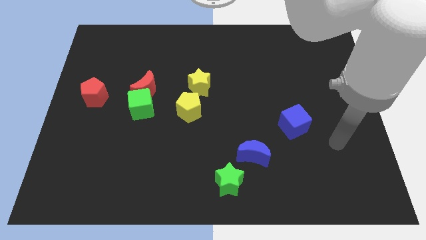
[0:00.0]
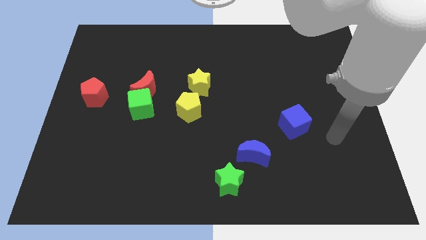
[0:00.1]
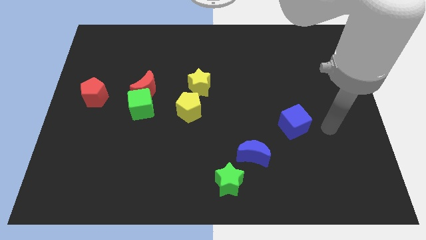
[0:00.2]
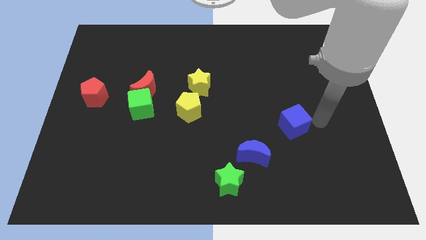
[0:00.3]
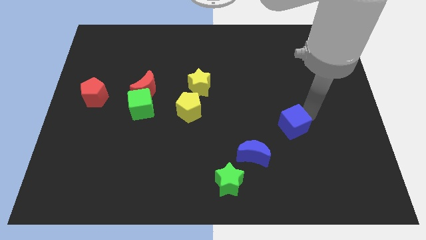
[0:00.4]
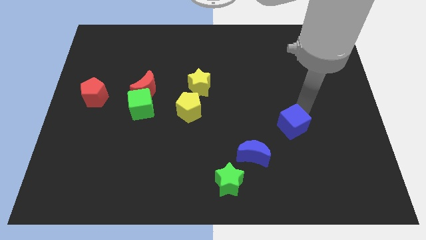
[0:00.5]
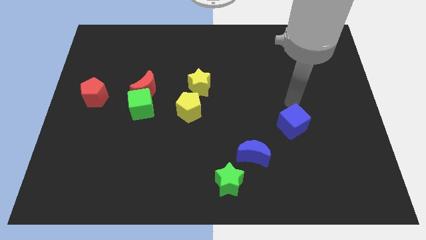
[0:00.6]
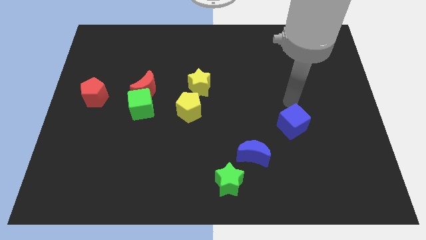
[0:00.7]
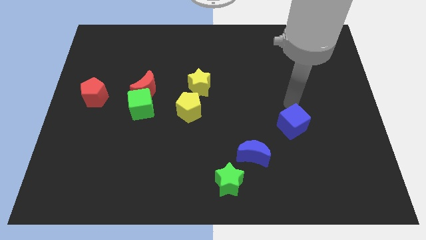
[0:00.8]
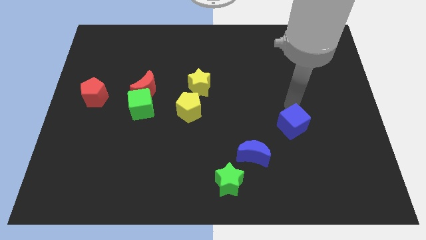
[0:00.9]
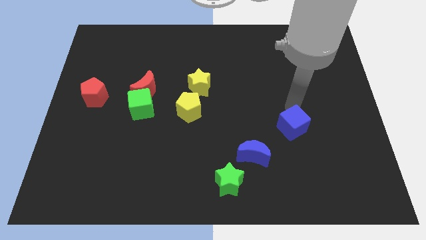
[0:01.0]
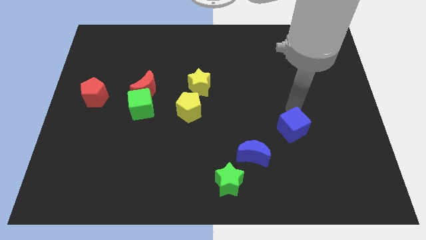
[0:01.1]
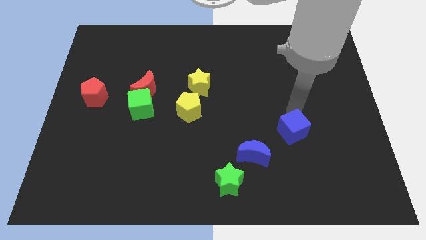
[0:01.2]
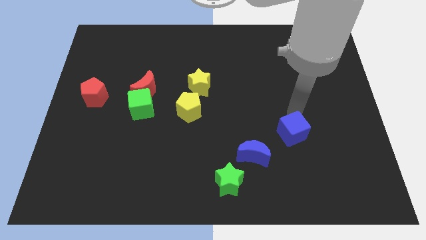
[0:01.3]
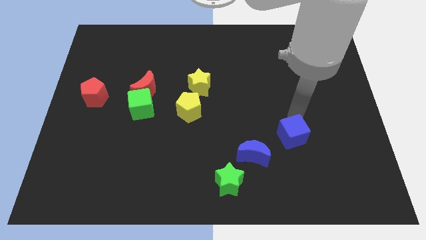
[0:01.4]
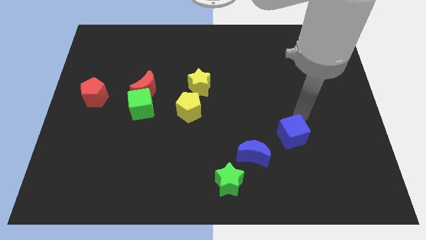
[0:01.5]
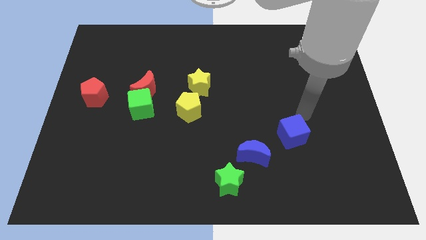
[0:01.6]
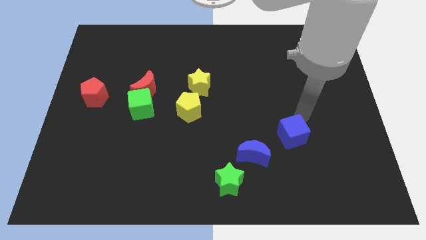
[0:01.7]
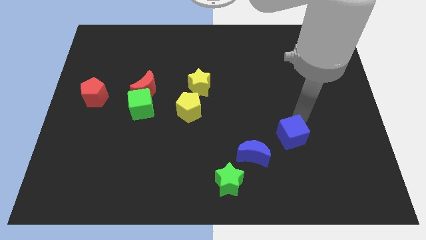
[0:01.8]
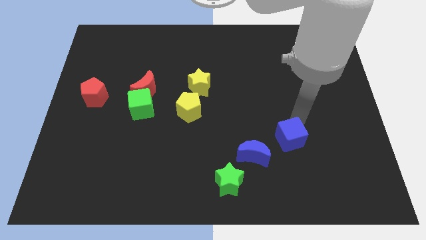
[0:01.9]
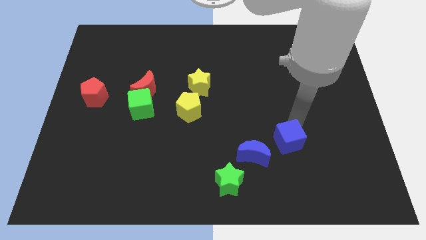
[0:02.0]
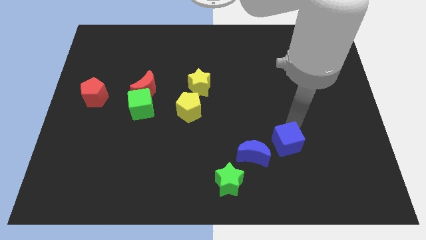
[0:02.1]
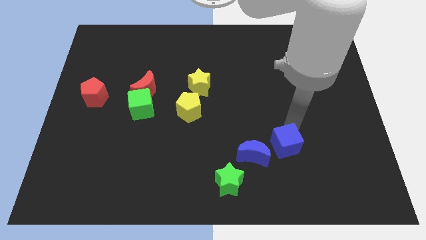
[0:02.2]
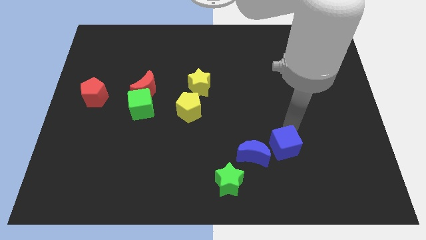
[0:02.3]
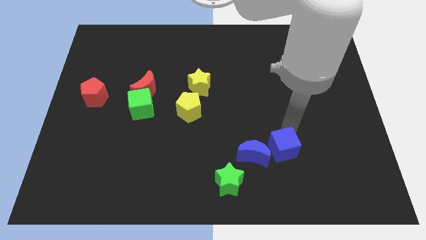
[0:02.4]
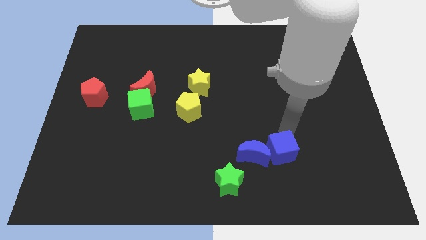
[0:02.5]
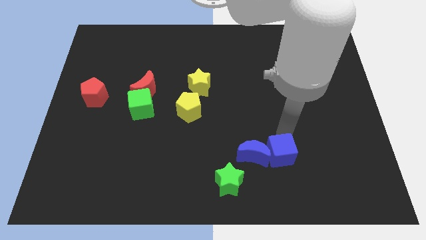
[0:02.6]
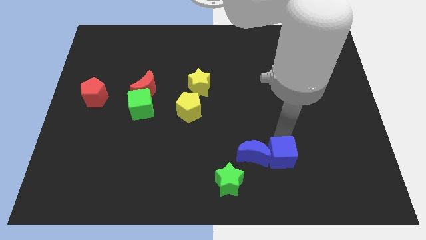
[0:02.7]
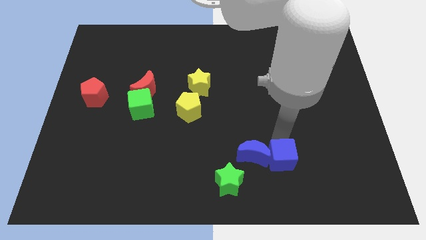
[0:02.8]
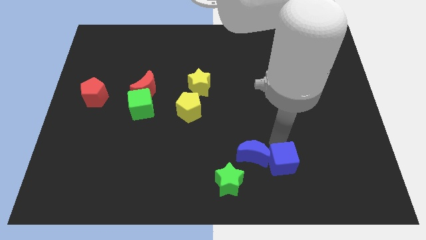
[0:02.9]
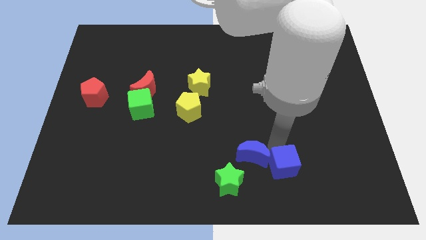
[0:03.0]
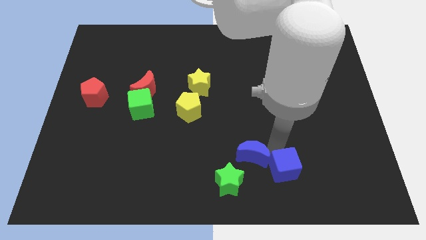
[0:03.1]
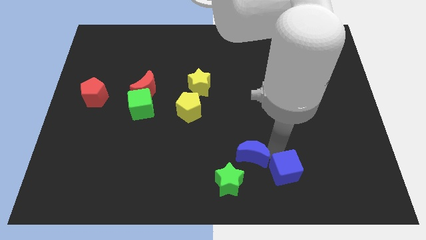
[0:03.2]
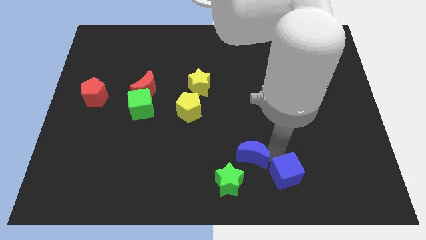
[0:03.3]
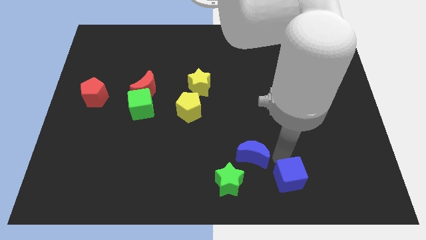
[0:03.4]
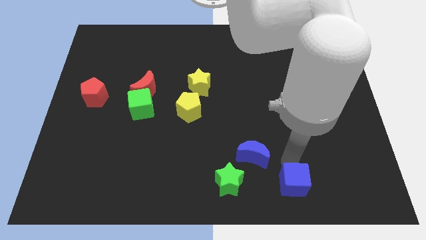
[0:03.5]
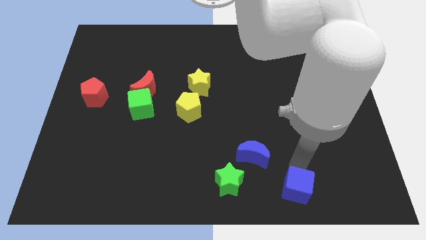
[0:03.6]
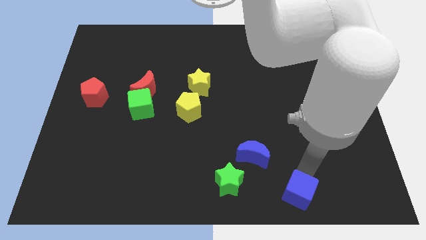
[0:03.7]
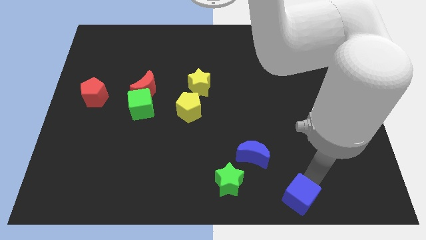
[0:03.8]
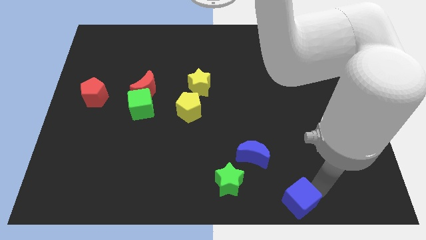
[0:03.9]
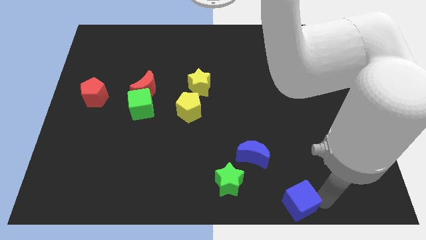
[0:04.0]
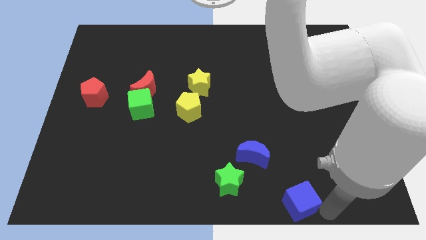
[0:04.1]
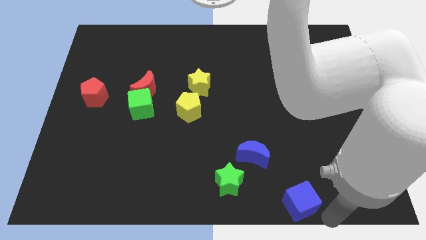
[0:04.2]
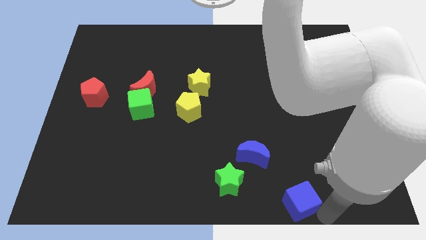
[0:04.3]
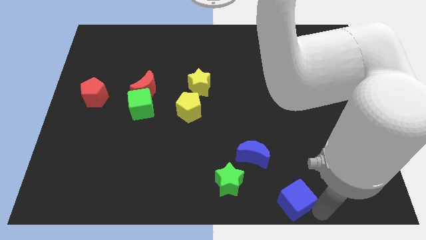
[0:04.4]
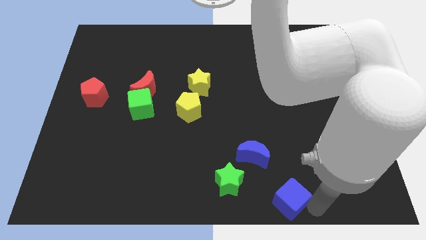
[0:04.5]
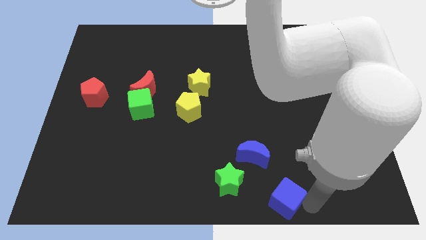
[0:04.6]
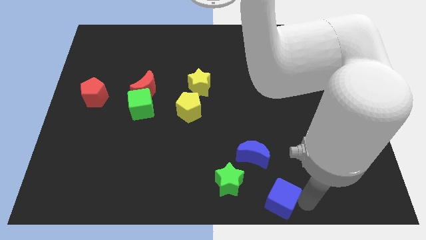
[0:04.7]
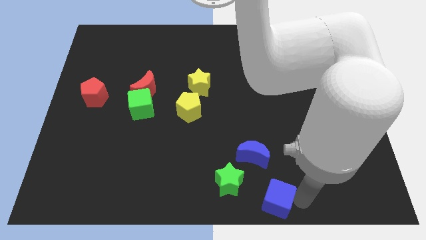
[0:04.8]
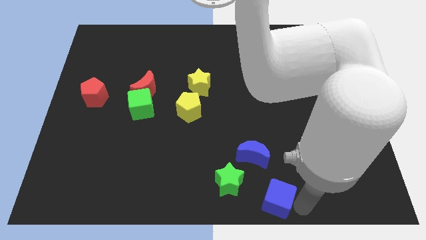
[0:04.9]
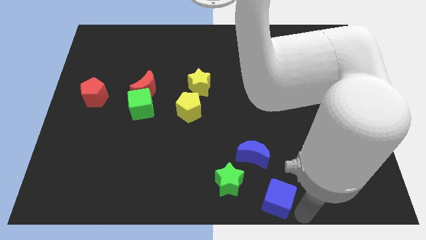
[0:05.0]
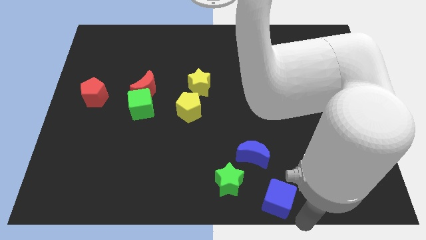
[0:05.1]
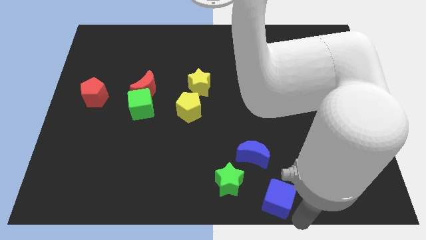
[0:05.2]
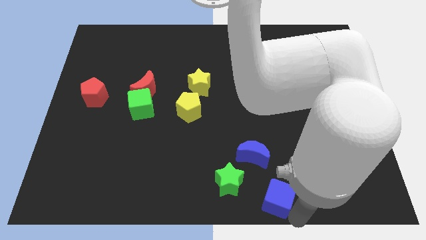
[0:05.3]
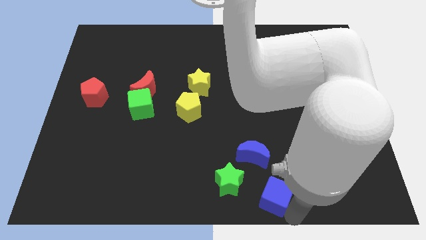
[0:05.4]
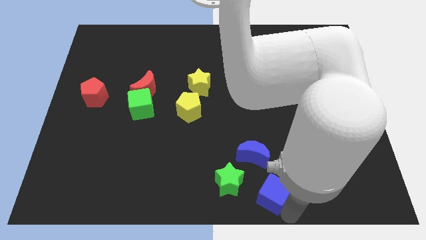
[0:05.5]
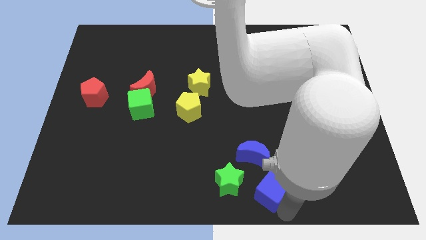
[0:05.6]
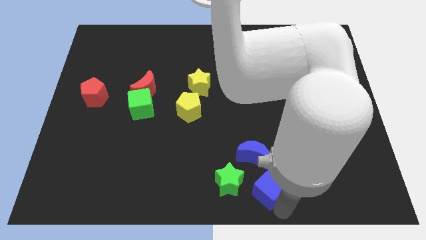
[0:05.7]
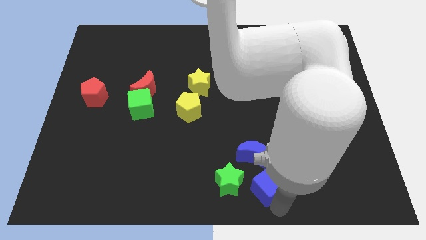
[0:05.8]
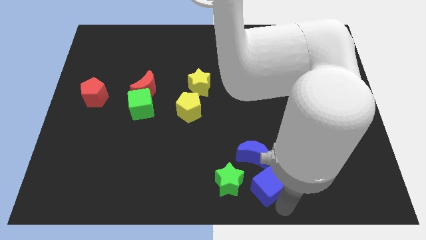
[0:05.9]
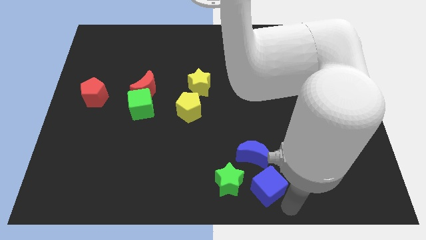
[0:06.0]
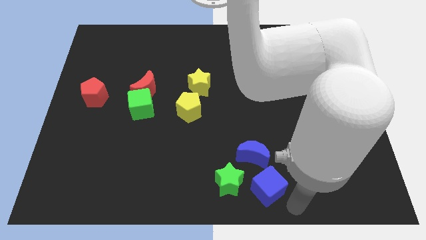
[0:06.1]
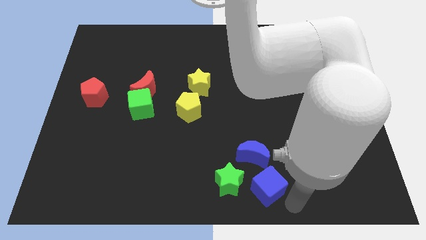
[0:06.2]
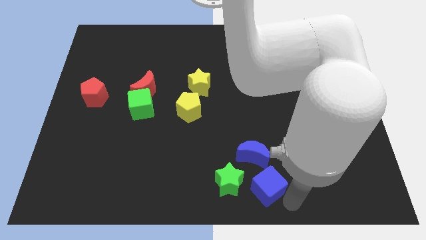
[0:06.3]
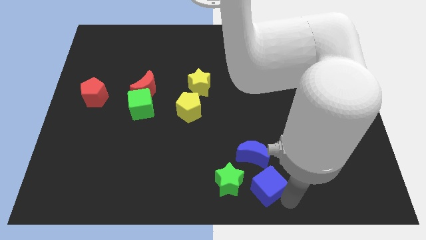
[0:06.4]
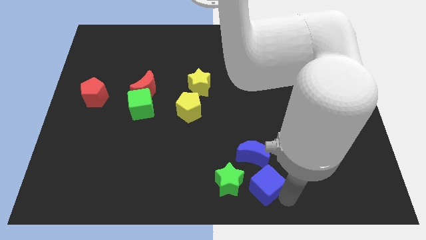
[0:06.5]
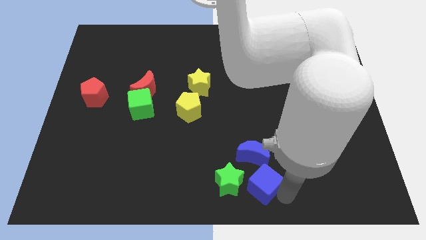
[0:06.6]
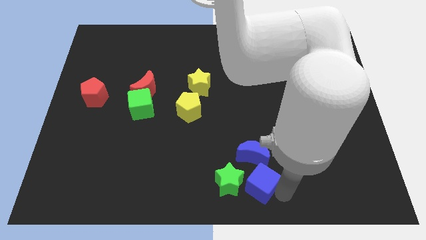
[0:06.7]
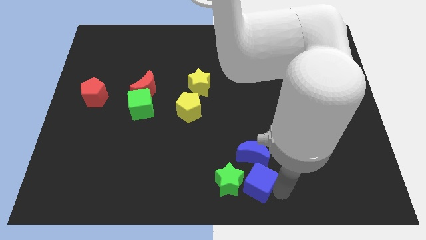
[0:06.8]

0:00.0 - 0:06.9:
push the blue cube to the green star
